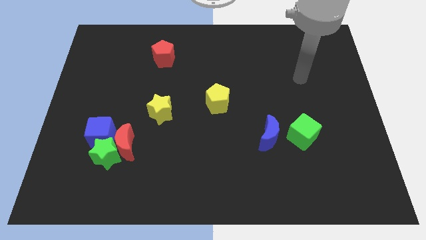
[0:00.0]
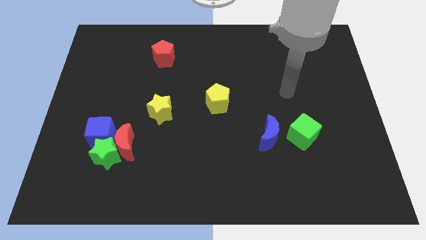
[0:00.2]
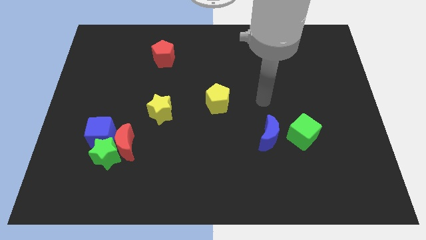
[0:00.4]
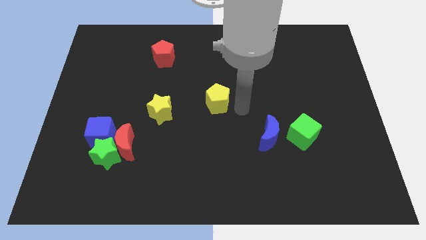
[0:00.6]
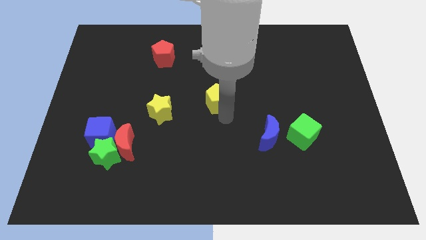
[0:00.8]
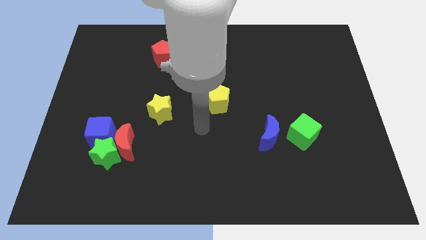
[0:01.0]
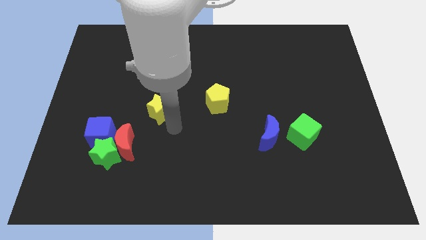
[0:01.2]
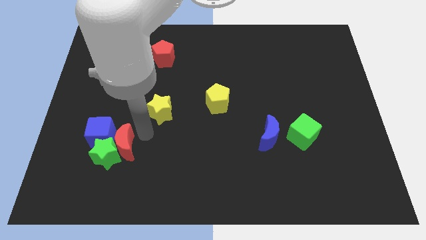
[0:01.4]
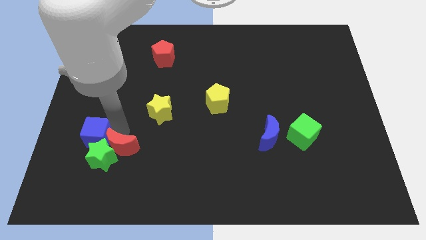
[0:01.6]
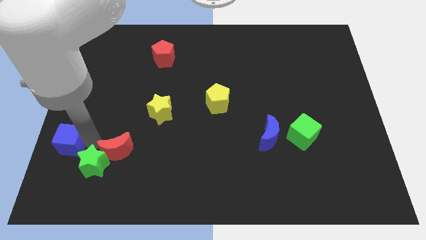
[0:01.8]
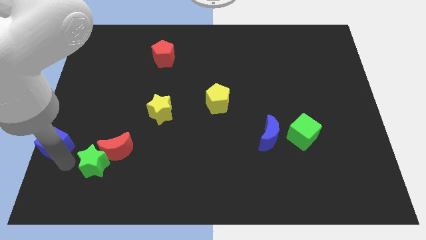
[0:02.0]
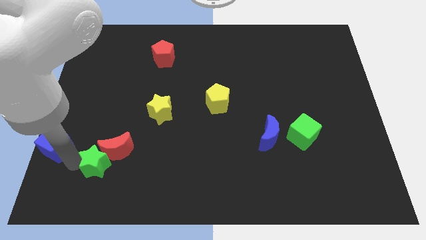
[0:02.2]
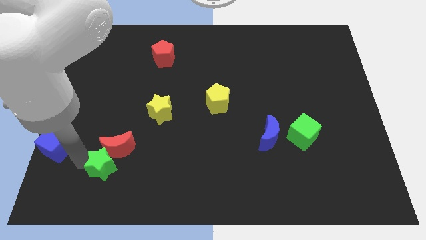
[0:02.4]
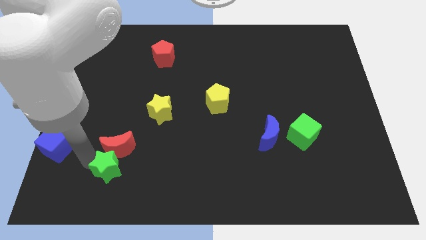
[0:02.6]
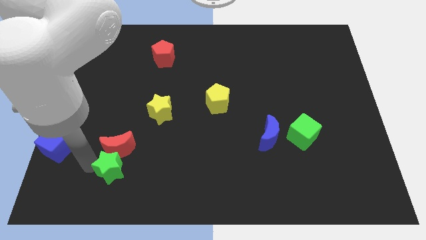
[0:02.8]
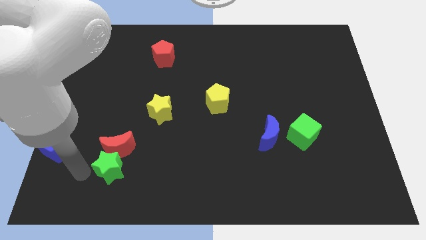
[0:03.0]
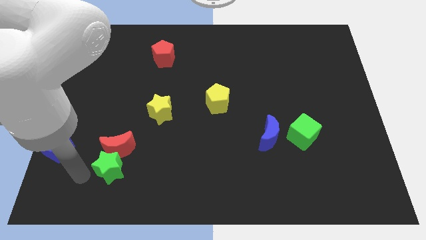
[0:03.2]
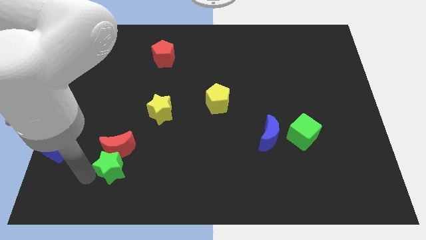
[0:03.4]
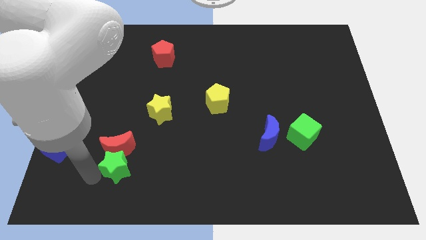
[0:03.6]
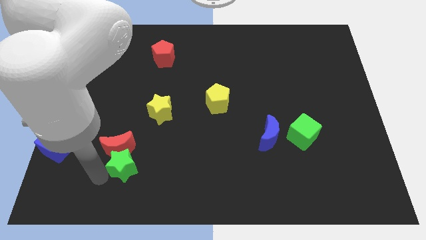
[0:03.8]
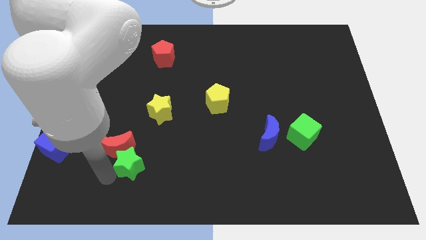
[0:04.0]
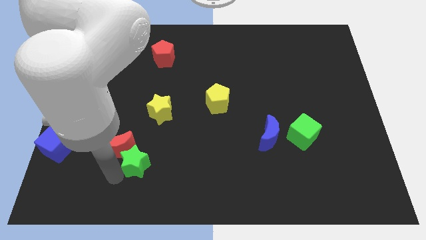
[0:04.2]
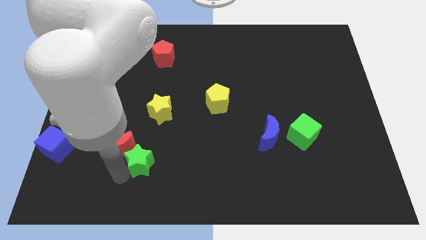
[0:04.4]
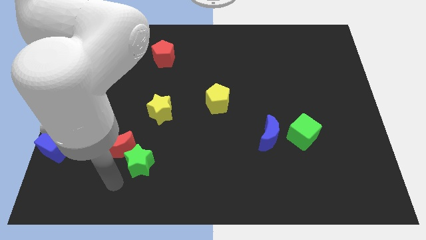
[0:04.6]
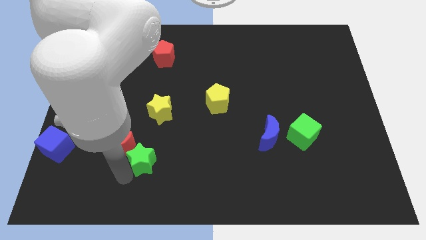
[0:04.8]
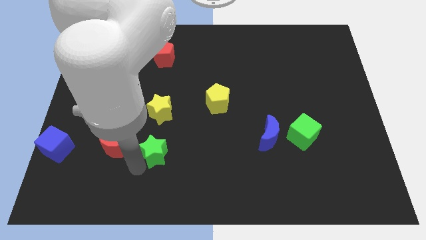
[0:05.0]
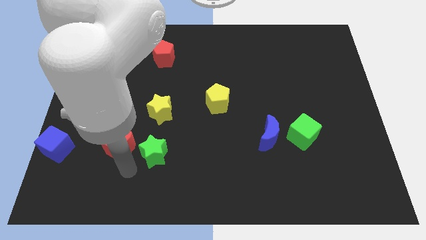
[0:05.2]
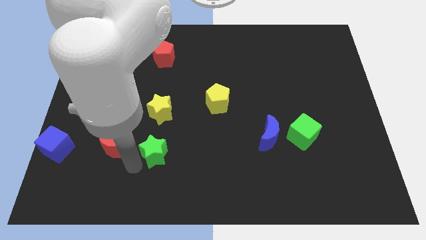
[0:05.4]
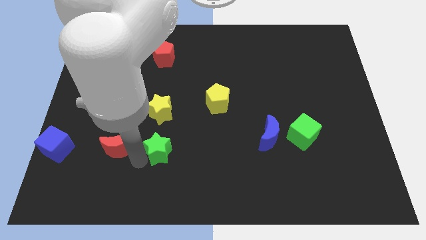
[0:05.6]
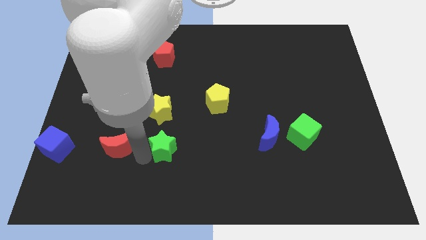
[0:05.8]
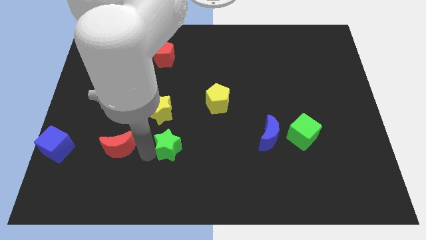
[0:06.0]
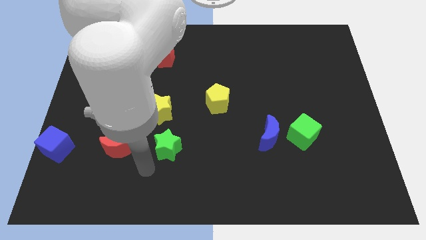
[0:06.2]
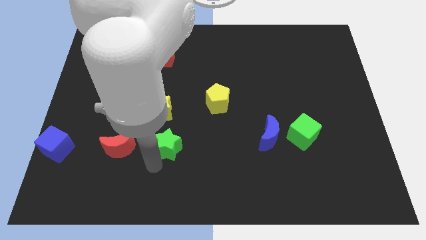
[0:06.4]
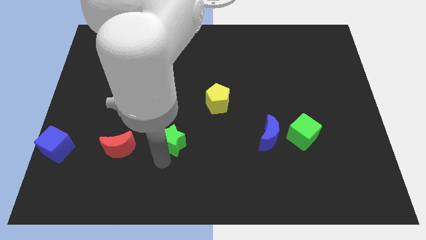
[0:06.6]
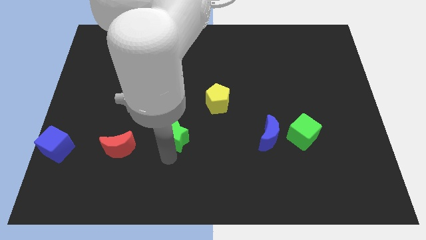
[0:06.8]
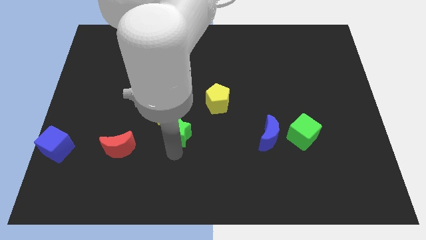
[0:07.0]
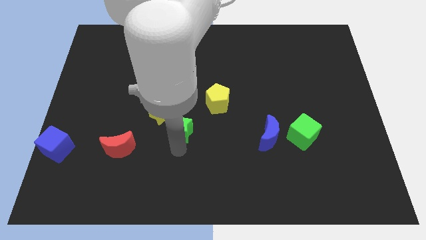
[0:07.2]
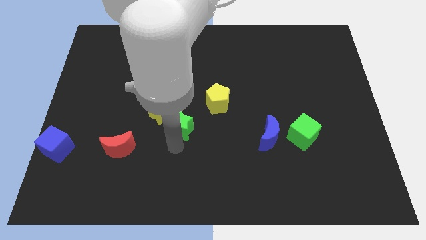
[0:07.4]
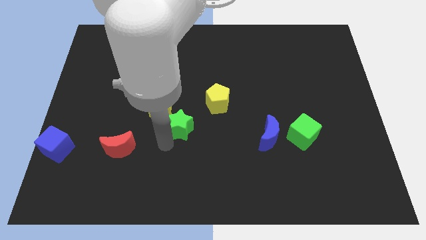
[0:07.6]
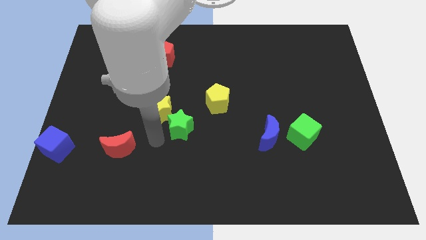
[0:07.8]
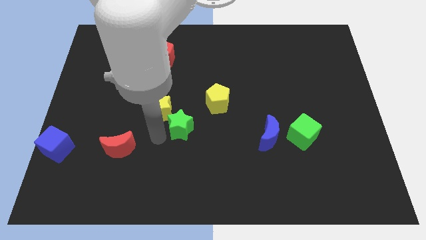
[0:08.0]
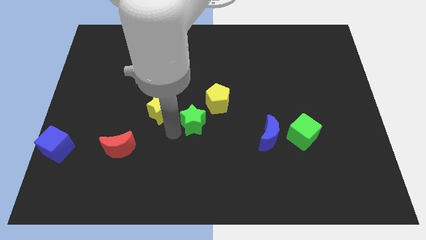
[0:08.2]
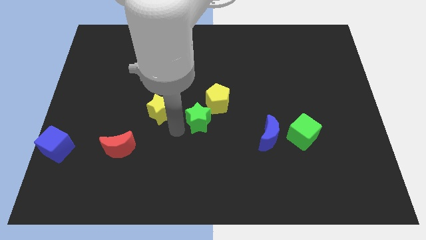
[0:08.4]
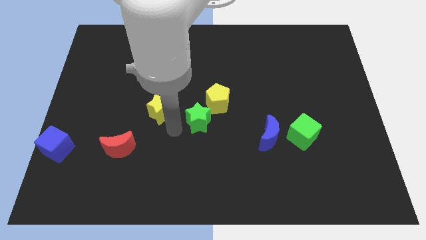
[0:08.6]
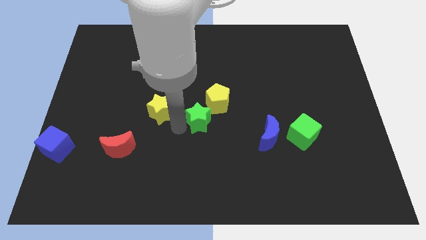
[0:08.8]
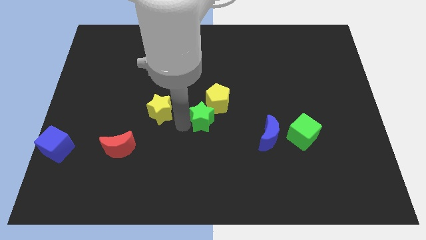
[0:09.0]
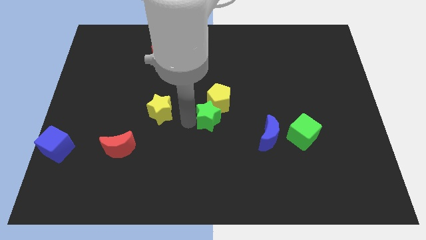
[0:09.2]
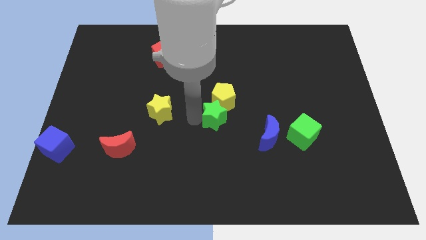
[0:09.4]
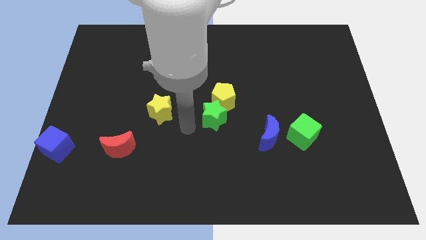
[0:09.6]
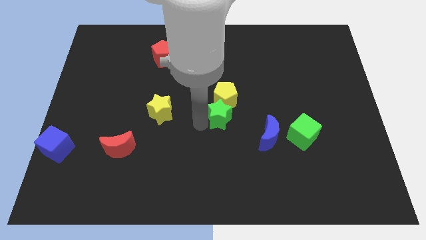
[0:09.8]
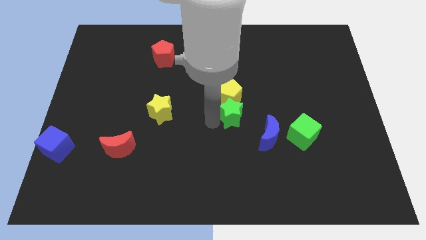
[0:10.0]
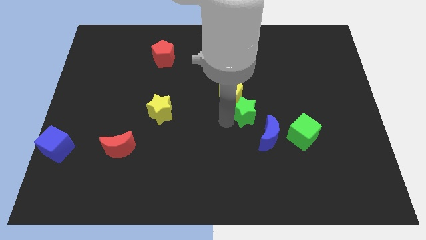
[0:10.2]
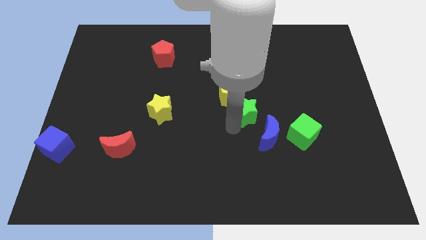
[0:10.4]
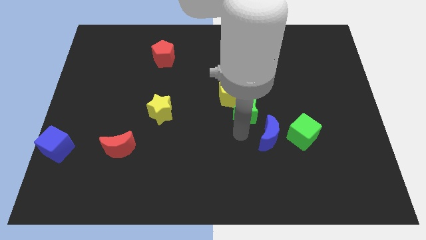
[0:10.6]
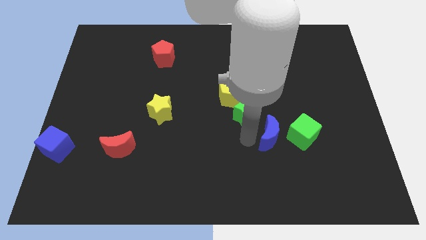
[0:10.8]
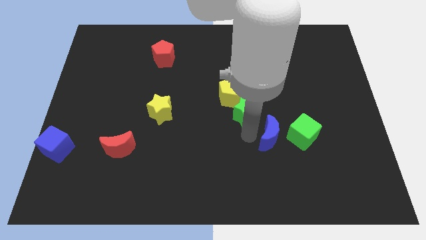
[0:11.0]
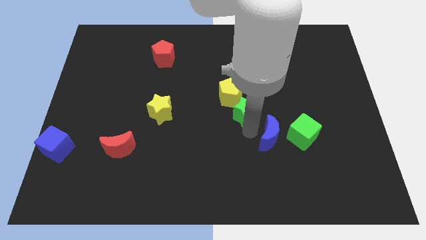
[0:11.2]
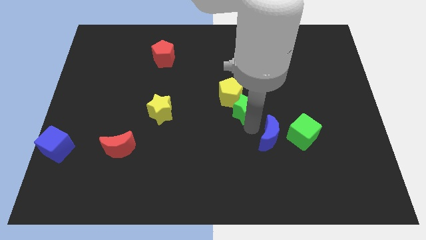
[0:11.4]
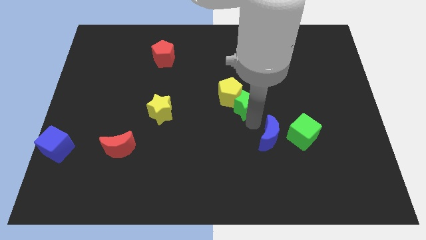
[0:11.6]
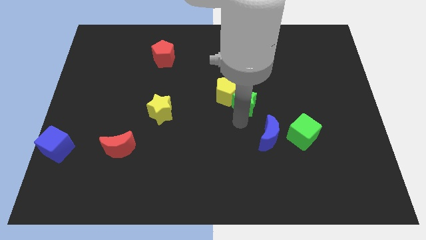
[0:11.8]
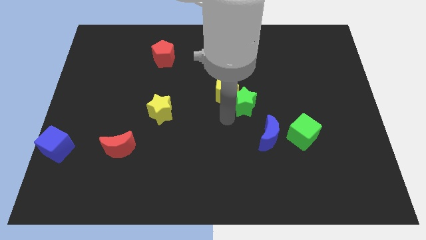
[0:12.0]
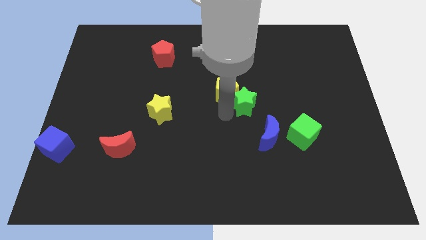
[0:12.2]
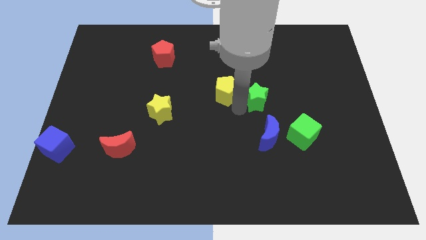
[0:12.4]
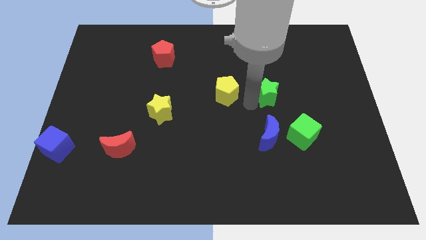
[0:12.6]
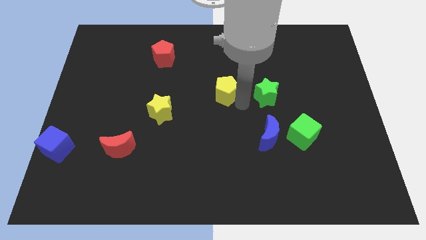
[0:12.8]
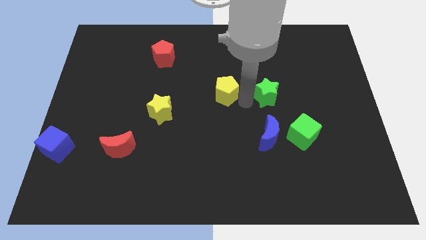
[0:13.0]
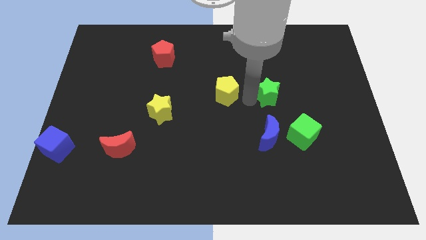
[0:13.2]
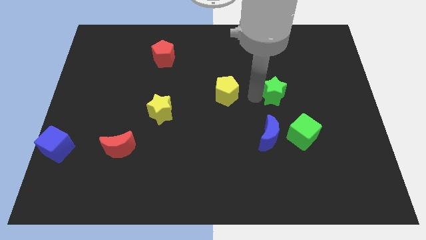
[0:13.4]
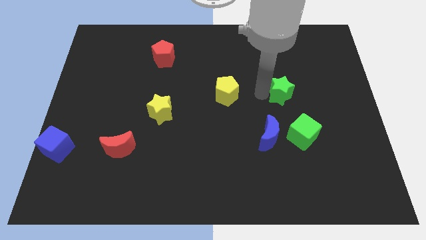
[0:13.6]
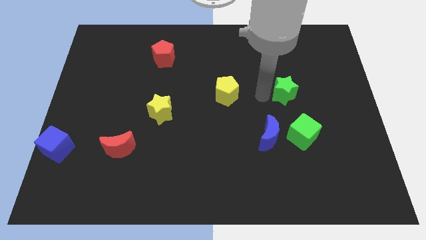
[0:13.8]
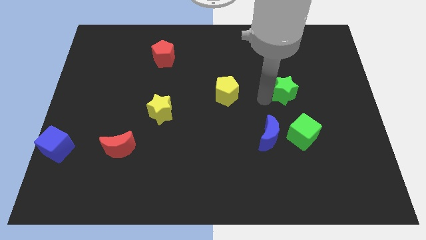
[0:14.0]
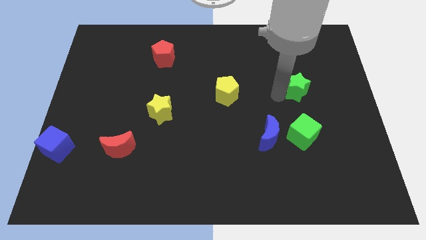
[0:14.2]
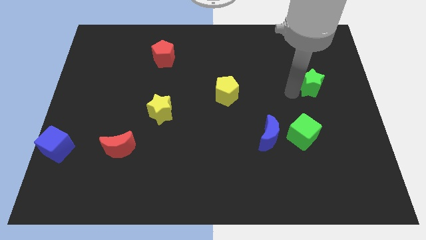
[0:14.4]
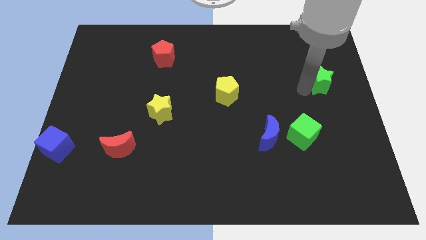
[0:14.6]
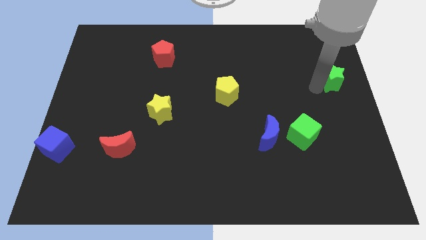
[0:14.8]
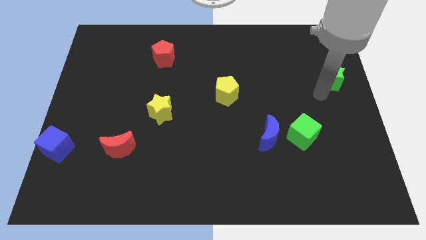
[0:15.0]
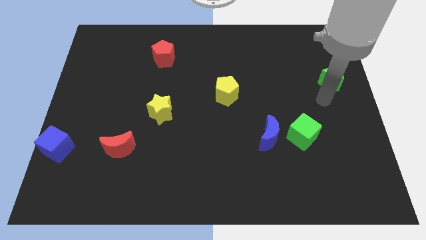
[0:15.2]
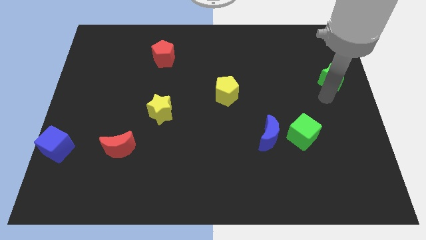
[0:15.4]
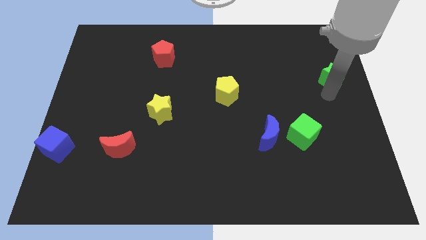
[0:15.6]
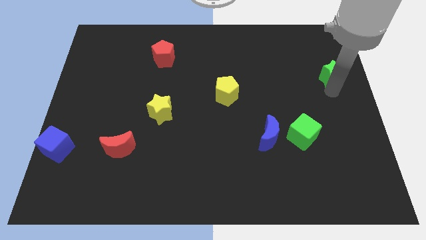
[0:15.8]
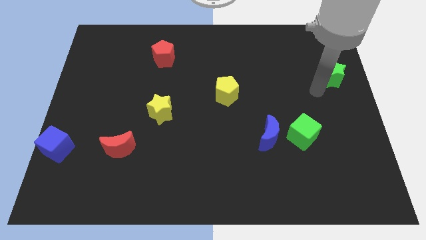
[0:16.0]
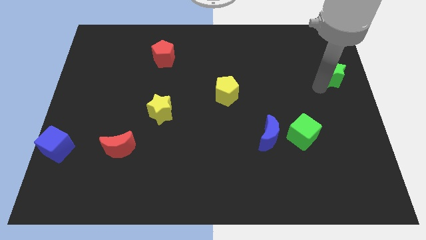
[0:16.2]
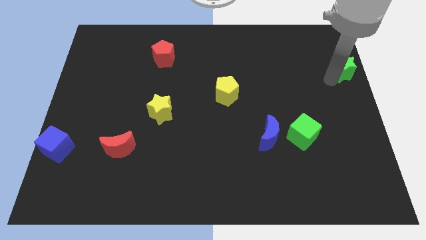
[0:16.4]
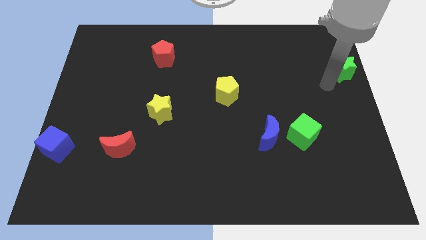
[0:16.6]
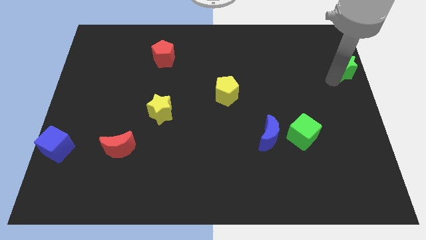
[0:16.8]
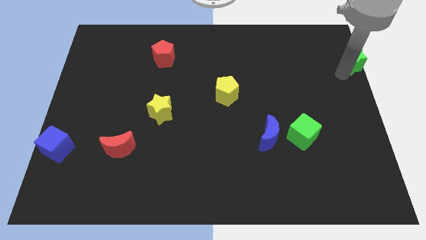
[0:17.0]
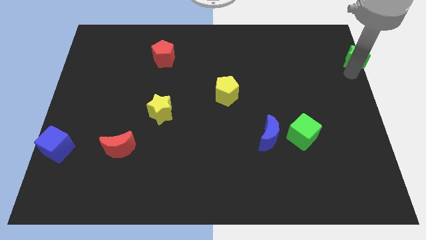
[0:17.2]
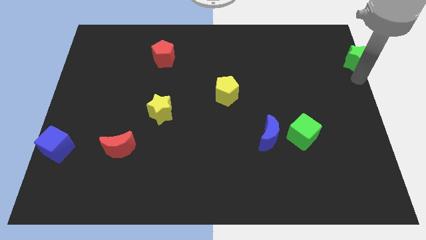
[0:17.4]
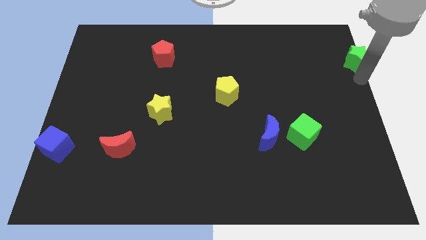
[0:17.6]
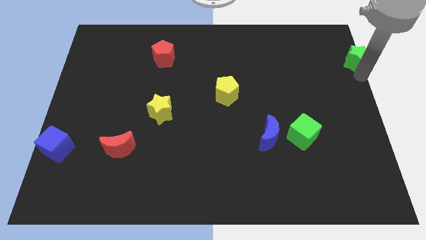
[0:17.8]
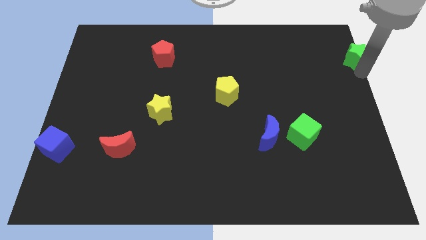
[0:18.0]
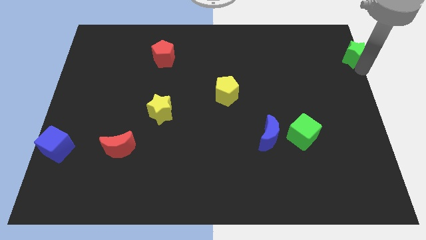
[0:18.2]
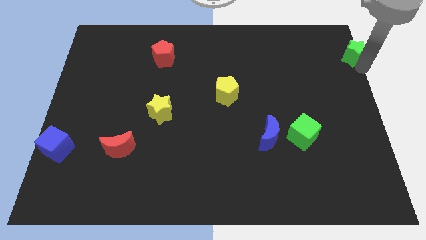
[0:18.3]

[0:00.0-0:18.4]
move the green star to the top right
